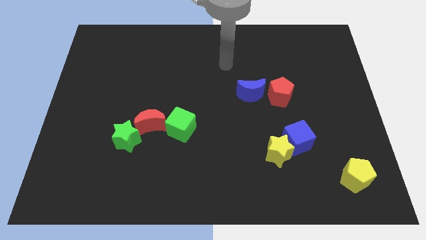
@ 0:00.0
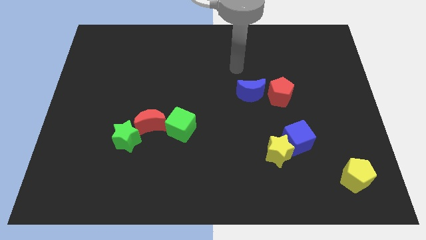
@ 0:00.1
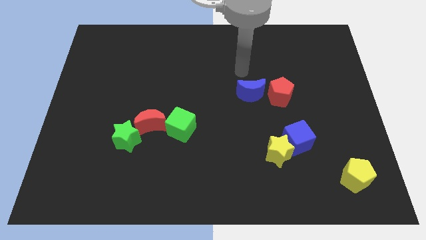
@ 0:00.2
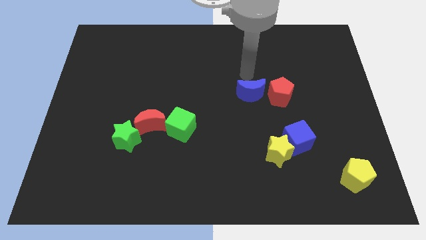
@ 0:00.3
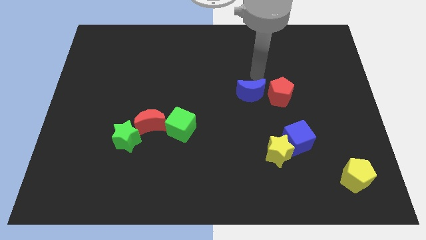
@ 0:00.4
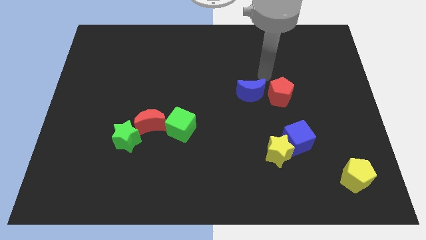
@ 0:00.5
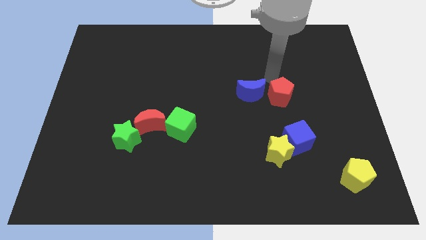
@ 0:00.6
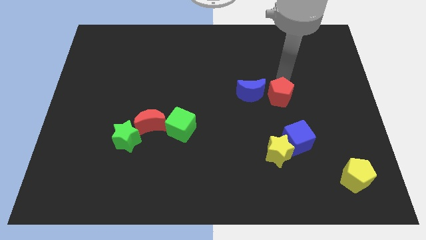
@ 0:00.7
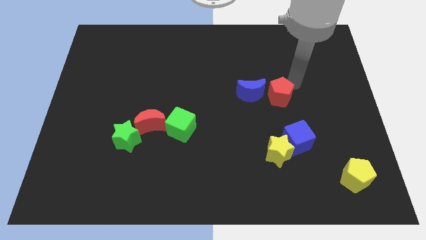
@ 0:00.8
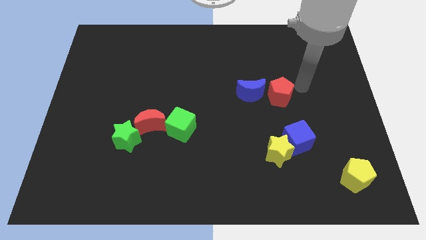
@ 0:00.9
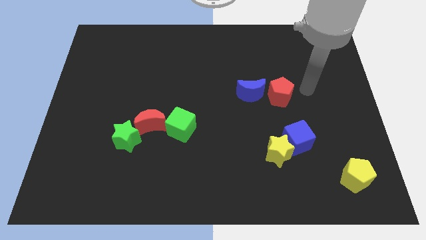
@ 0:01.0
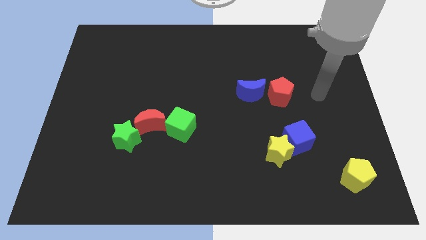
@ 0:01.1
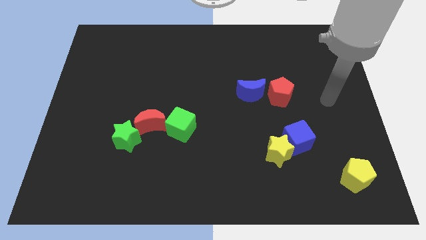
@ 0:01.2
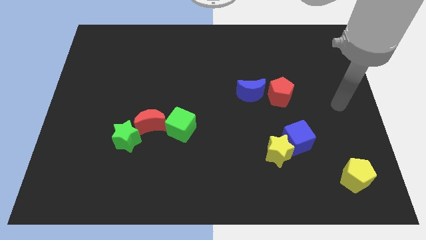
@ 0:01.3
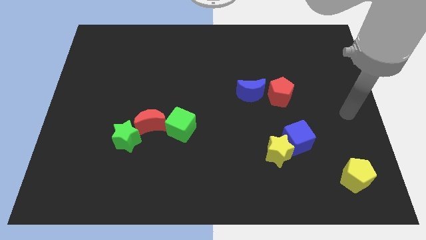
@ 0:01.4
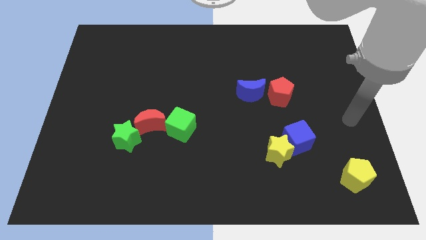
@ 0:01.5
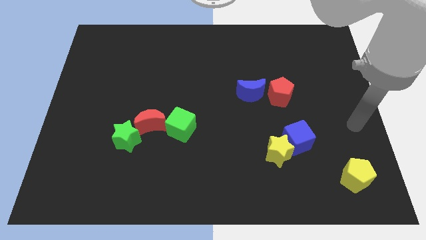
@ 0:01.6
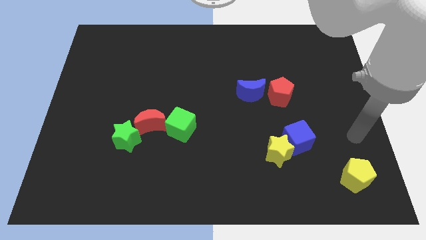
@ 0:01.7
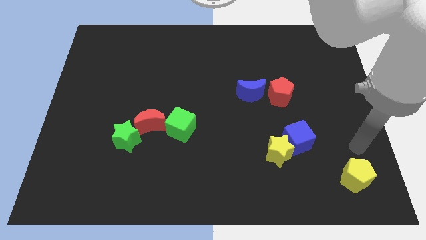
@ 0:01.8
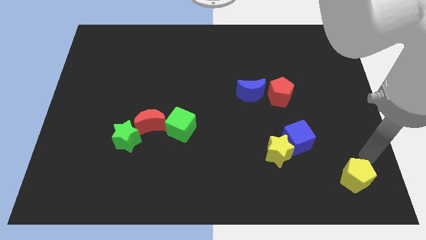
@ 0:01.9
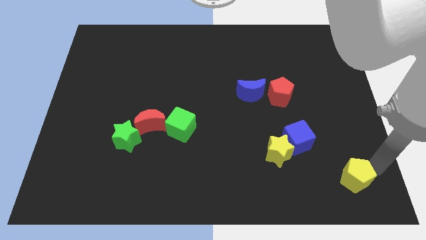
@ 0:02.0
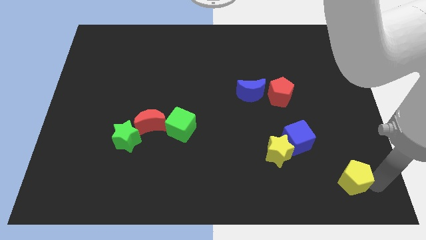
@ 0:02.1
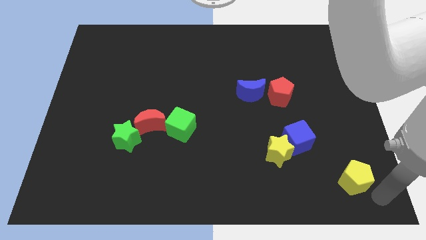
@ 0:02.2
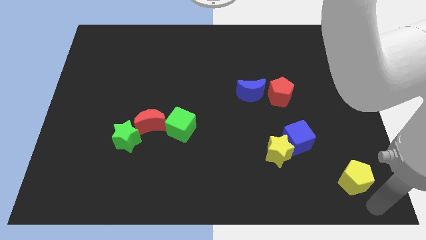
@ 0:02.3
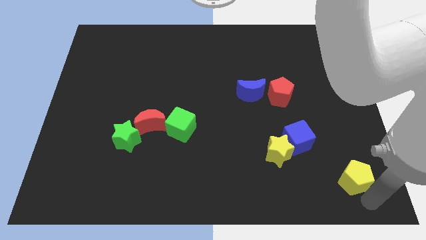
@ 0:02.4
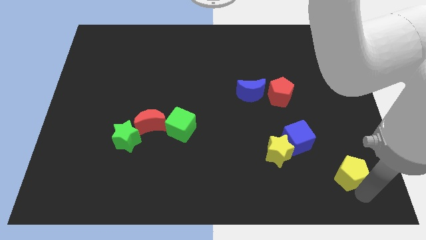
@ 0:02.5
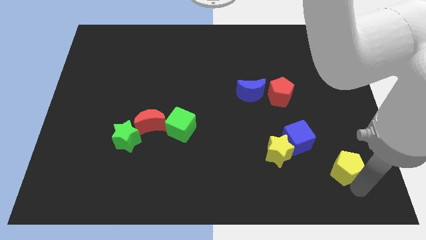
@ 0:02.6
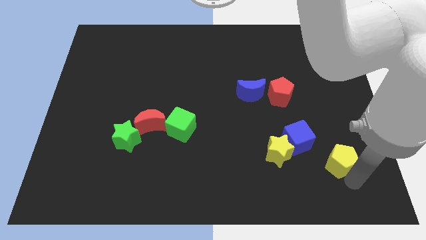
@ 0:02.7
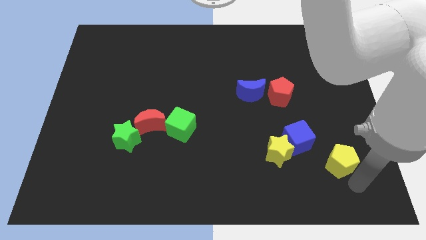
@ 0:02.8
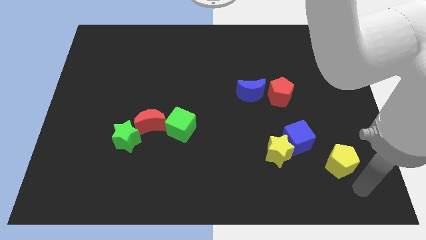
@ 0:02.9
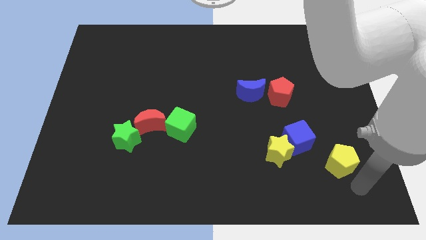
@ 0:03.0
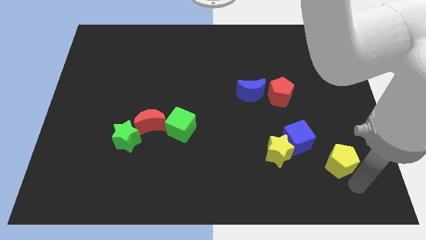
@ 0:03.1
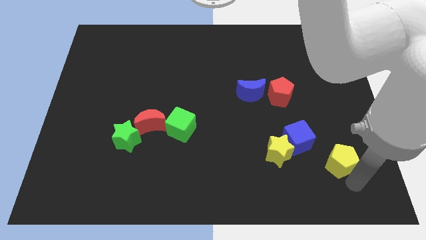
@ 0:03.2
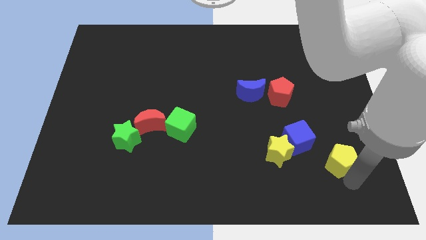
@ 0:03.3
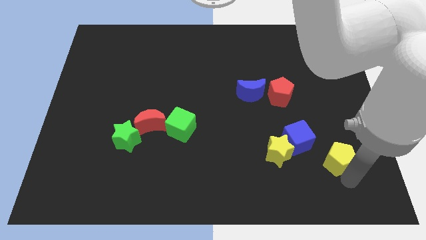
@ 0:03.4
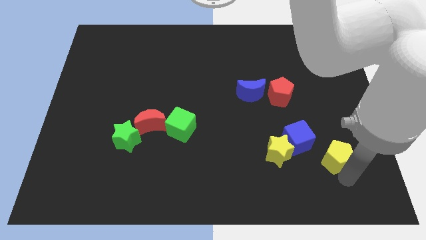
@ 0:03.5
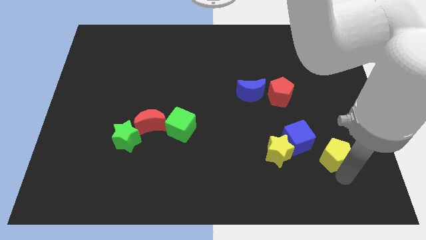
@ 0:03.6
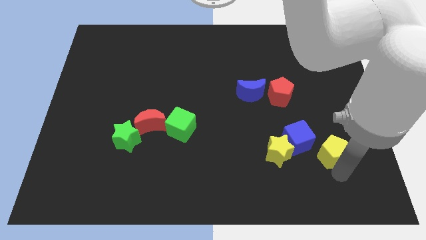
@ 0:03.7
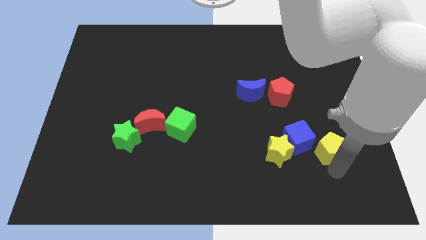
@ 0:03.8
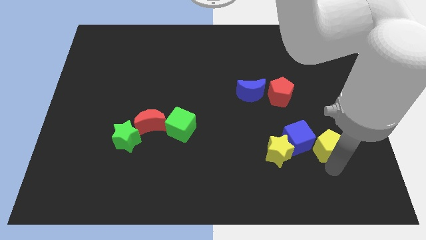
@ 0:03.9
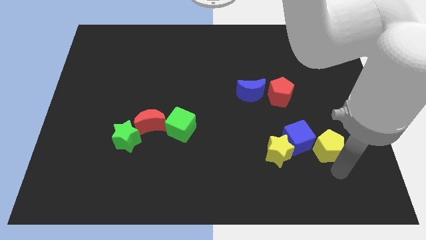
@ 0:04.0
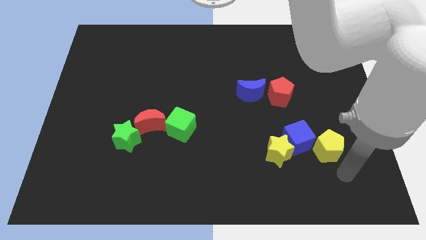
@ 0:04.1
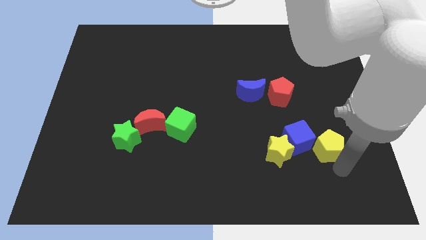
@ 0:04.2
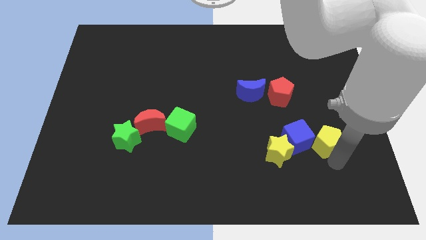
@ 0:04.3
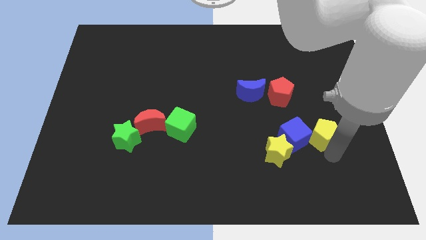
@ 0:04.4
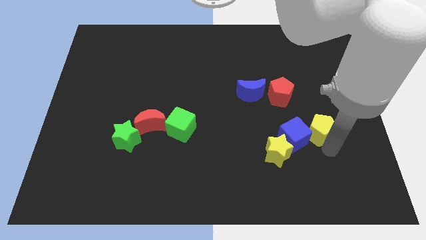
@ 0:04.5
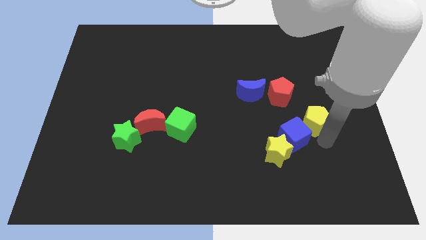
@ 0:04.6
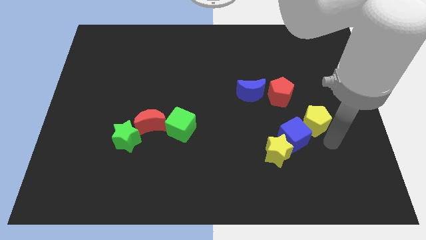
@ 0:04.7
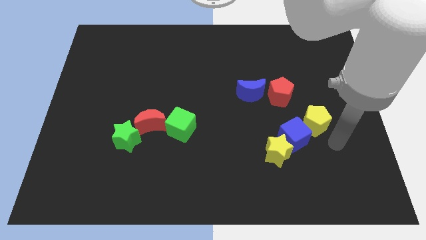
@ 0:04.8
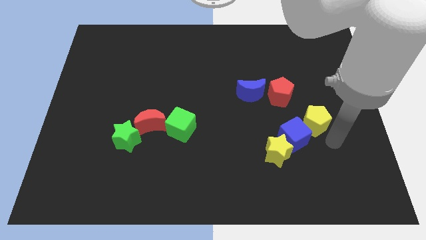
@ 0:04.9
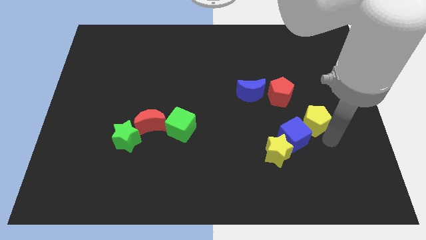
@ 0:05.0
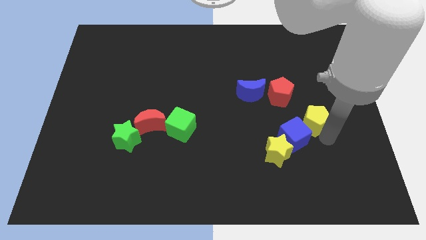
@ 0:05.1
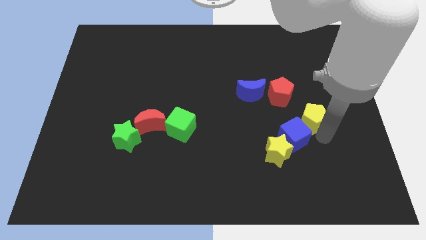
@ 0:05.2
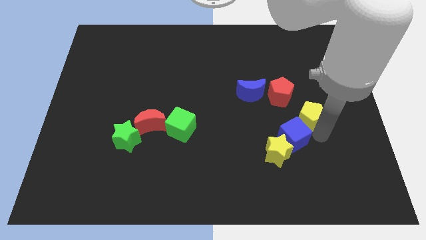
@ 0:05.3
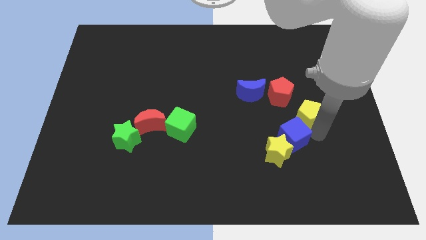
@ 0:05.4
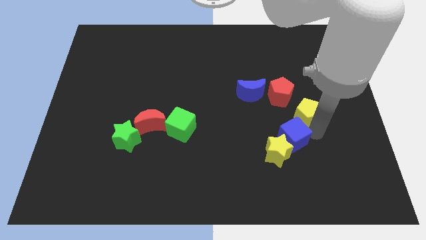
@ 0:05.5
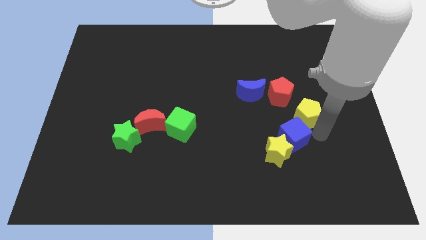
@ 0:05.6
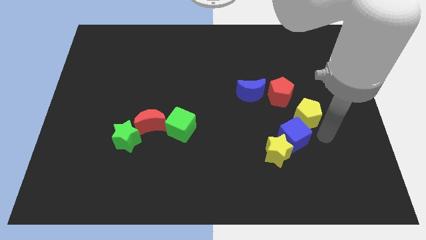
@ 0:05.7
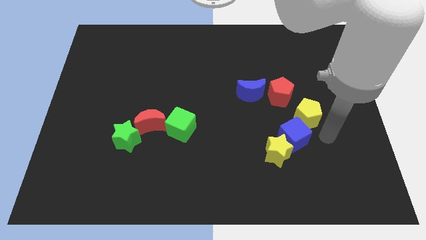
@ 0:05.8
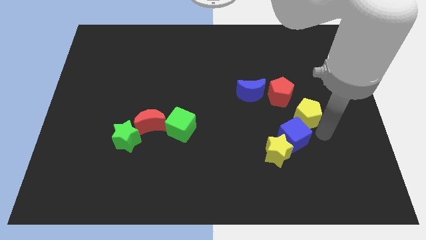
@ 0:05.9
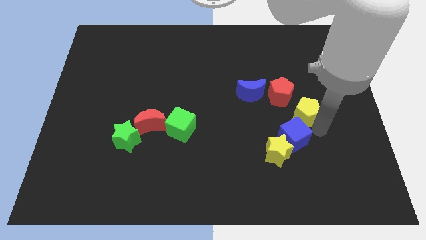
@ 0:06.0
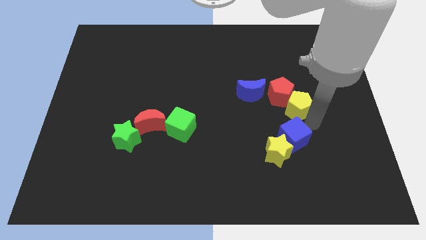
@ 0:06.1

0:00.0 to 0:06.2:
move the yellow pentagon next to the red pentagon
